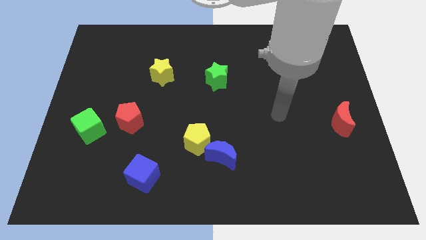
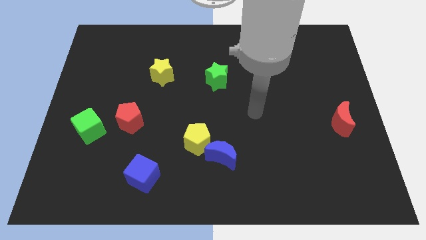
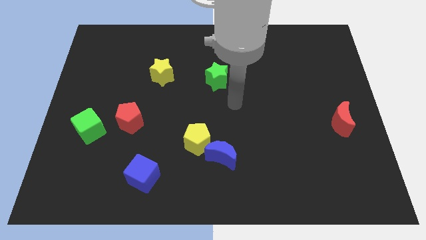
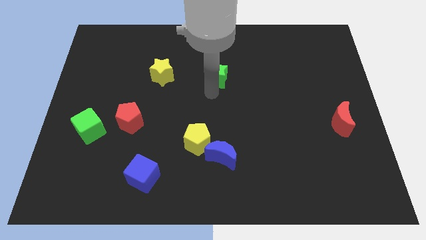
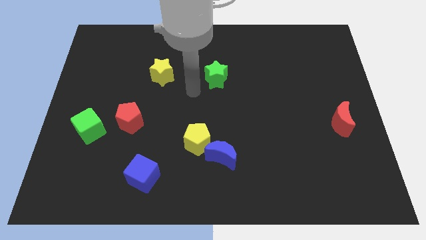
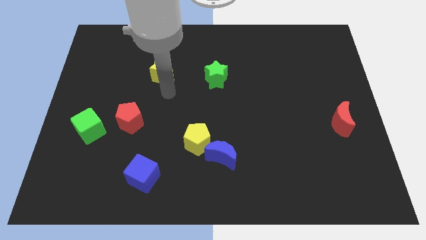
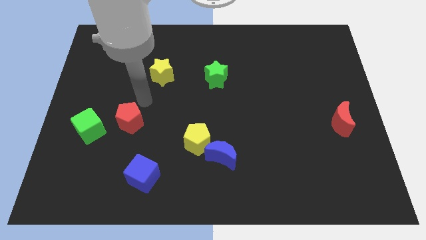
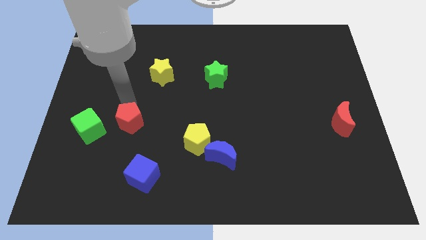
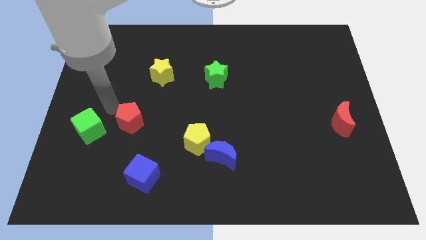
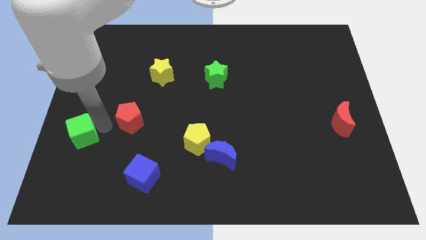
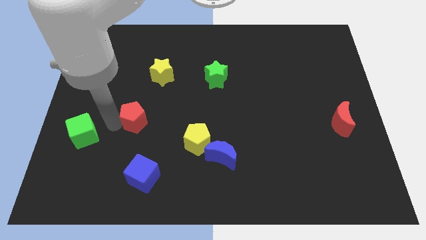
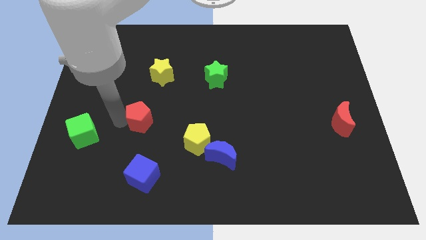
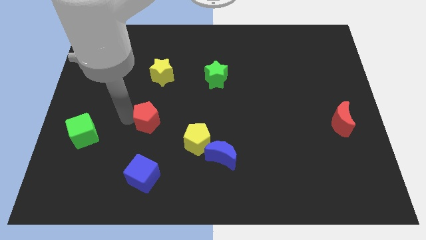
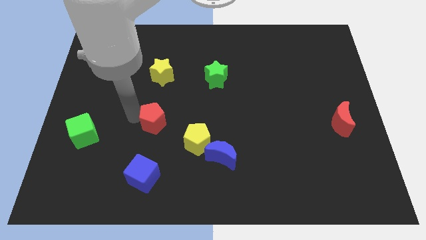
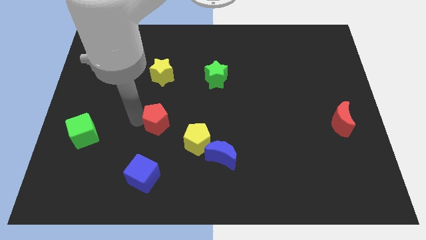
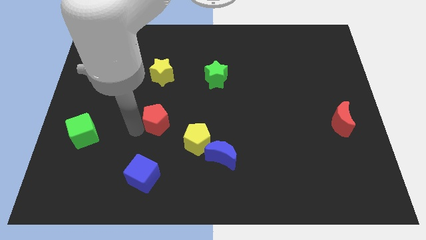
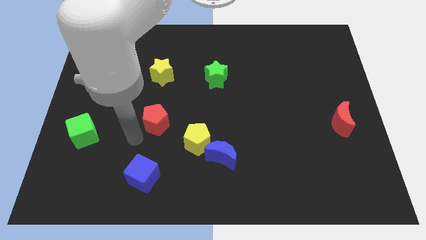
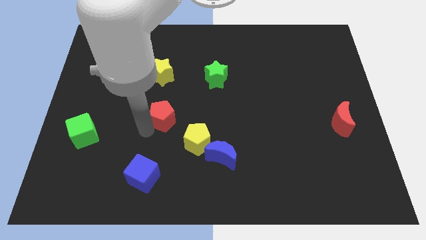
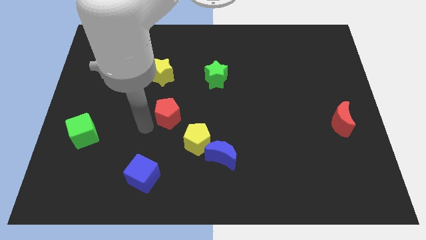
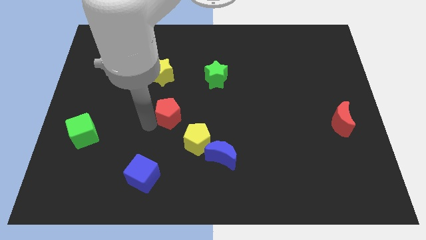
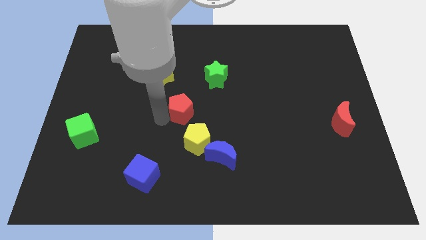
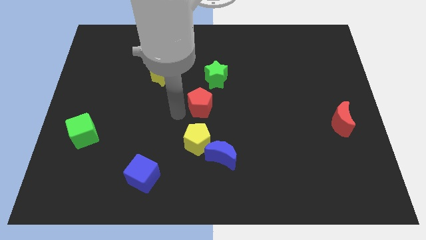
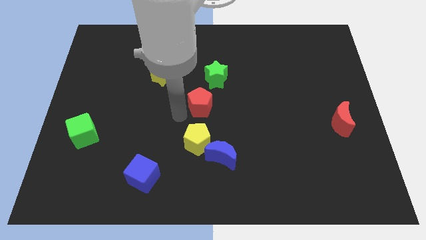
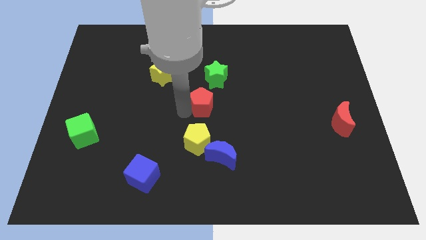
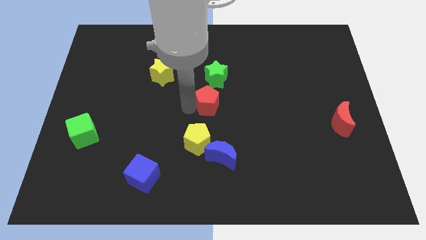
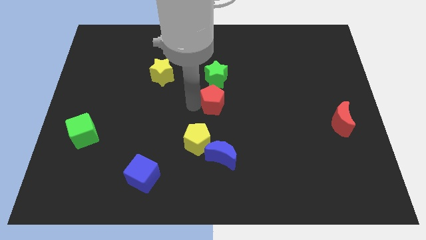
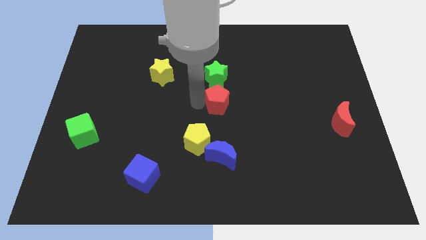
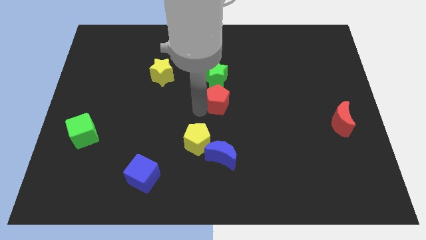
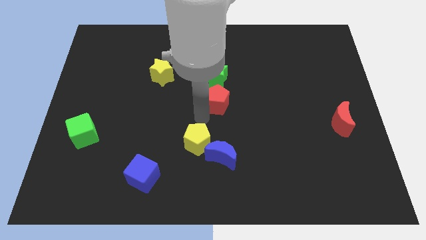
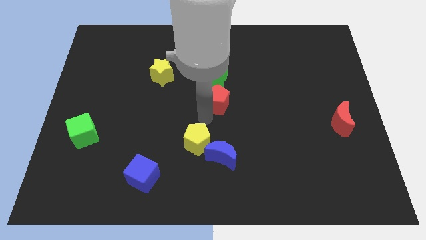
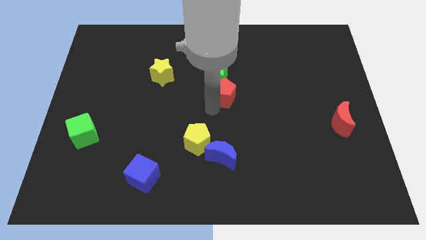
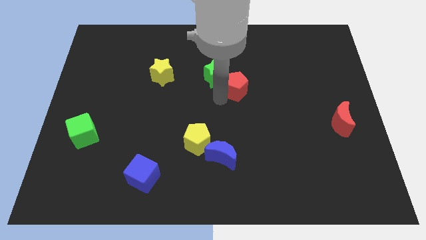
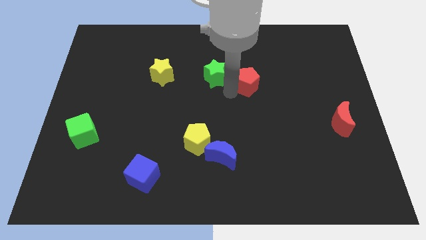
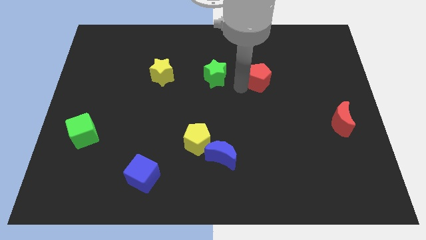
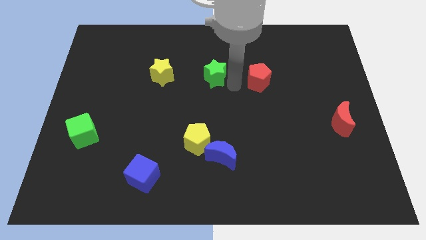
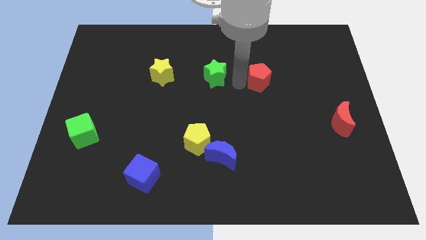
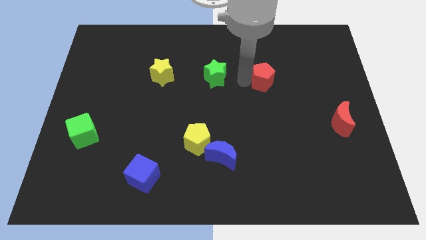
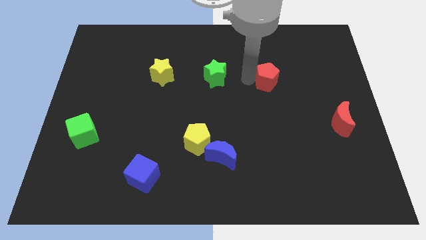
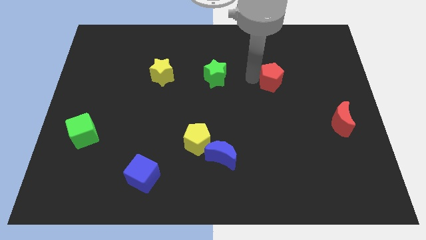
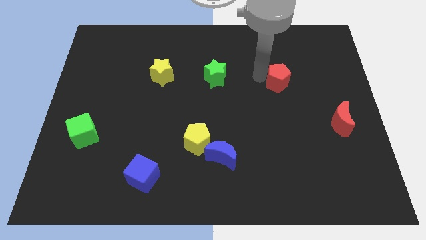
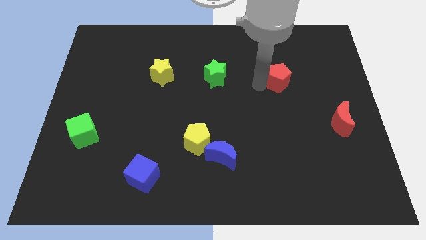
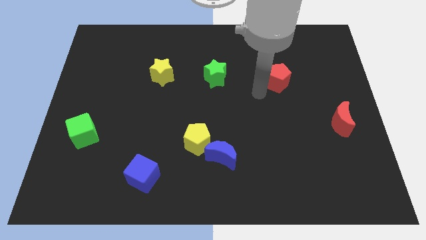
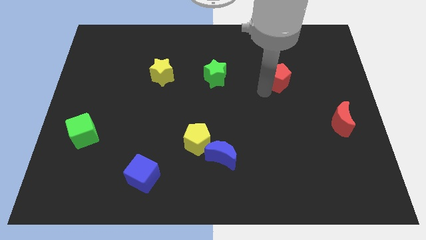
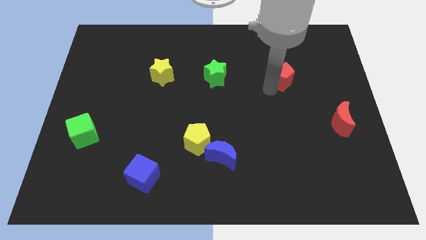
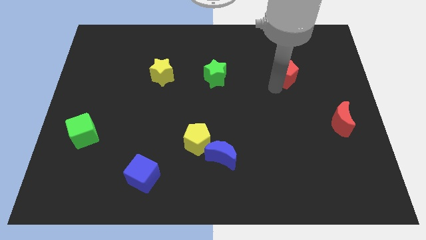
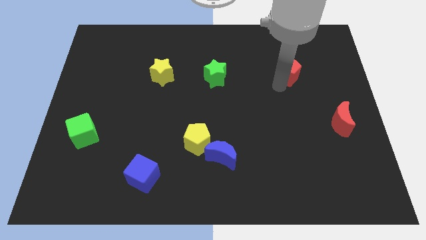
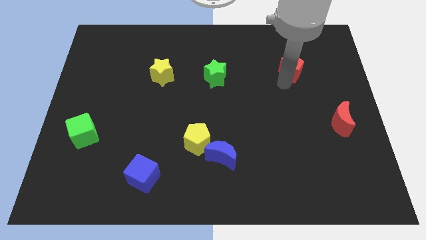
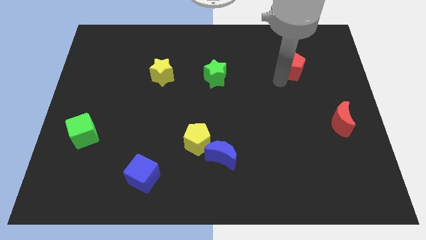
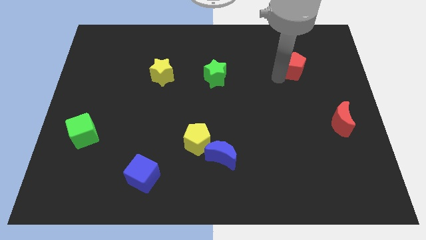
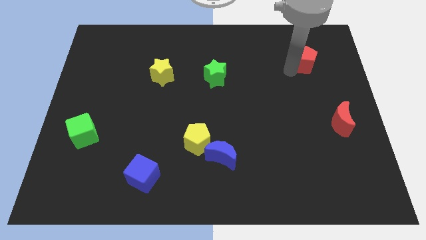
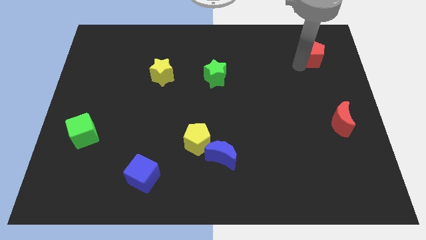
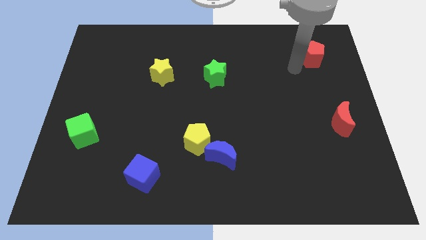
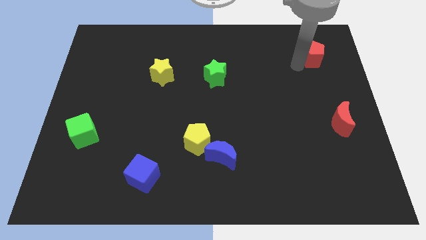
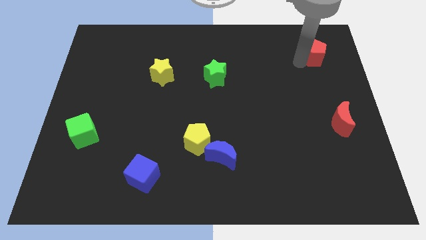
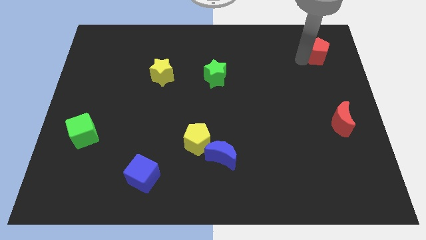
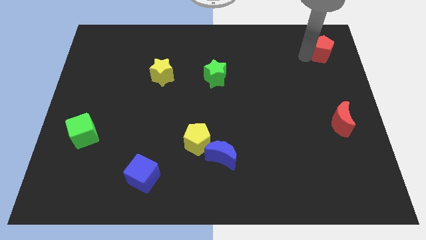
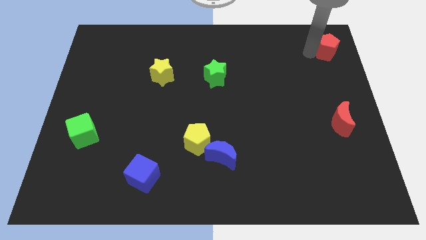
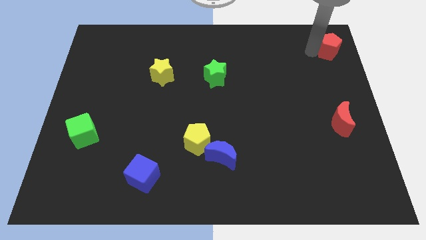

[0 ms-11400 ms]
move the red pentagon to the top right

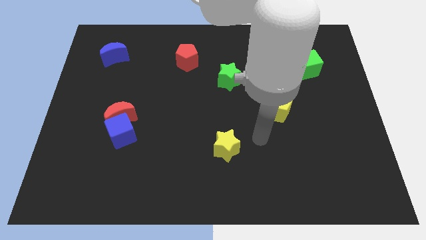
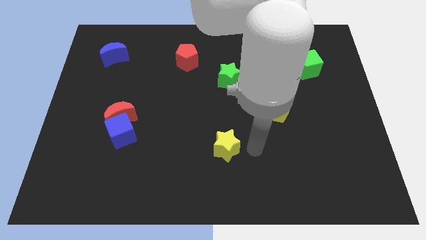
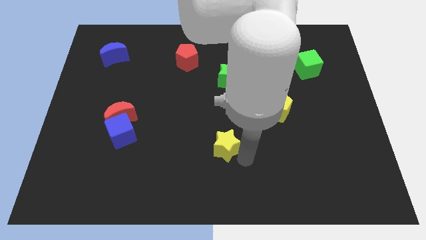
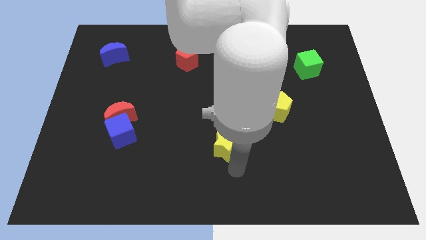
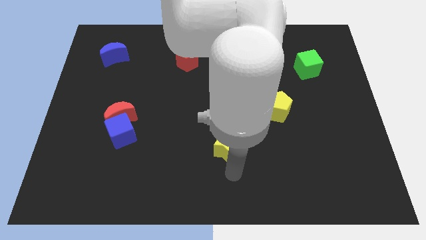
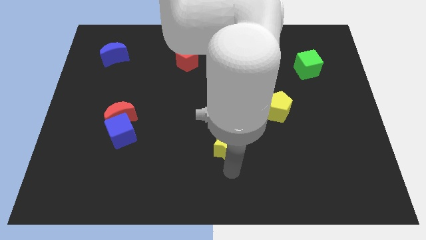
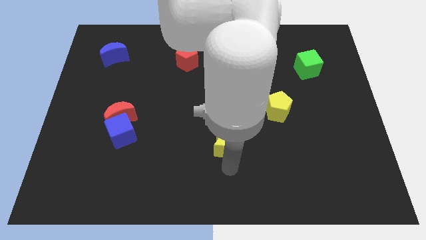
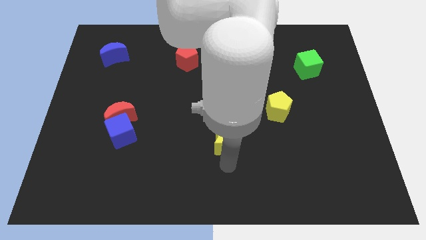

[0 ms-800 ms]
push the yellow star to the middle of the board
